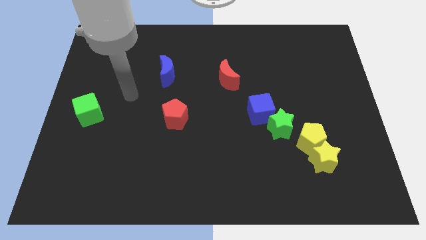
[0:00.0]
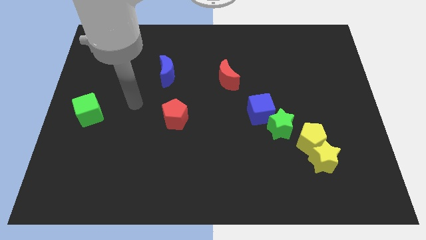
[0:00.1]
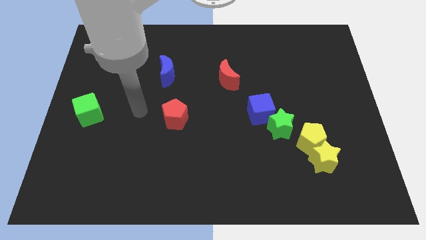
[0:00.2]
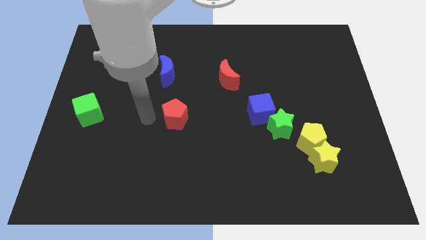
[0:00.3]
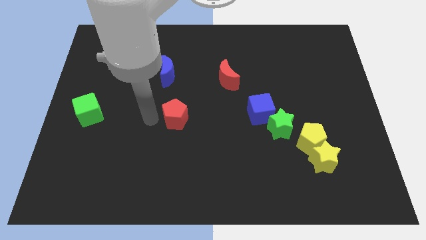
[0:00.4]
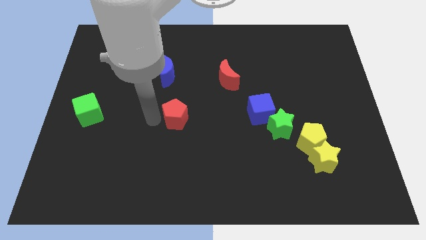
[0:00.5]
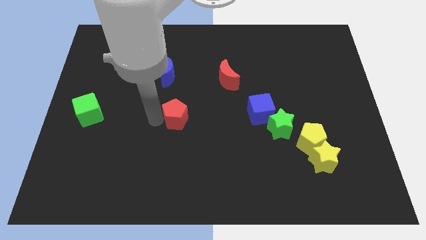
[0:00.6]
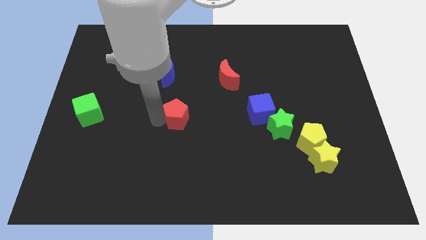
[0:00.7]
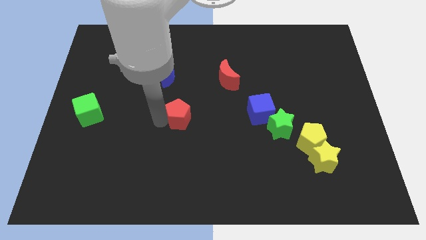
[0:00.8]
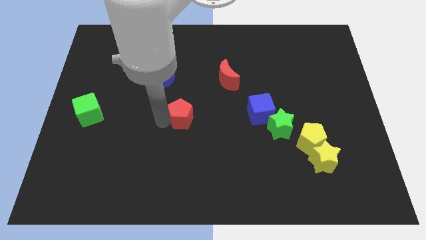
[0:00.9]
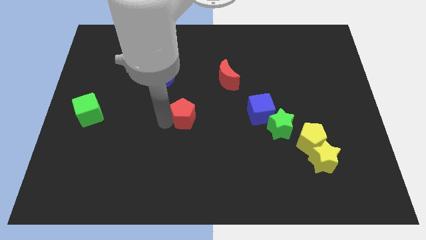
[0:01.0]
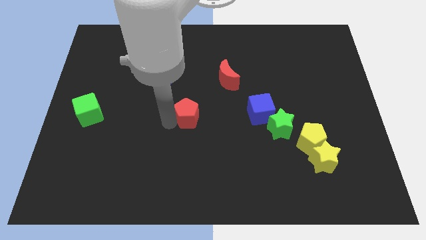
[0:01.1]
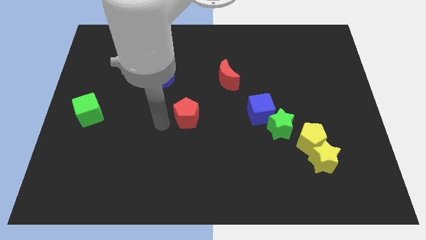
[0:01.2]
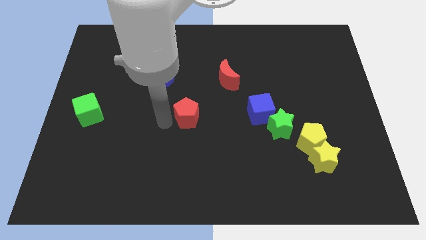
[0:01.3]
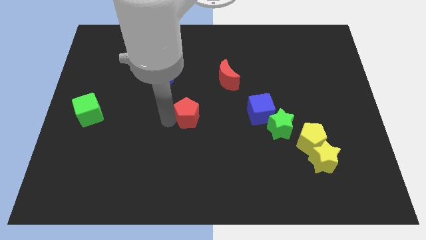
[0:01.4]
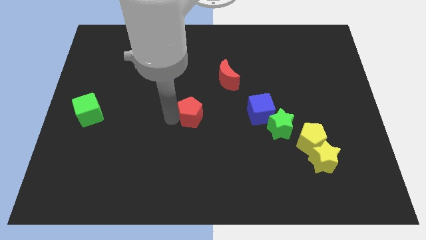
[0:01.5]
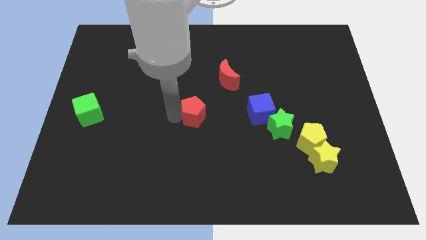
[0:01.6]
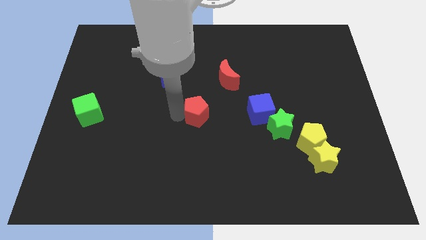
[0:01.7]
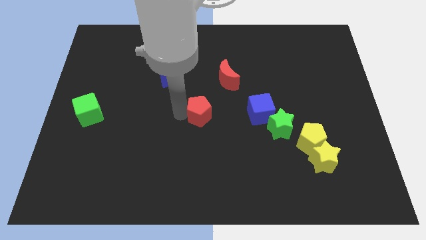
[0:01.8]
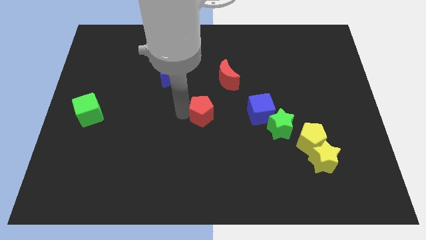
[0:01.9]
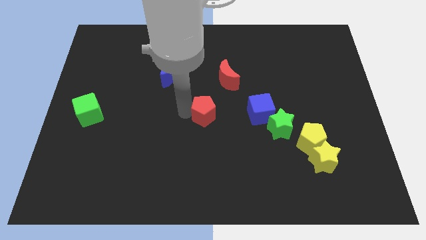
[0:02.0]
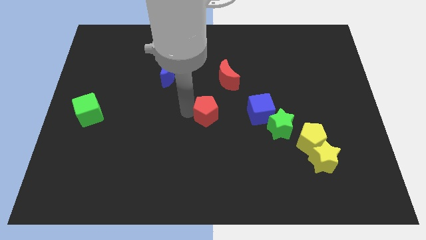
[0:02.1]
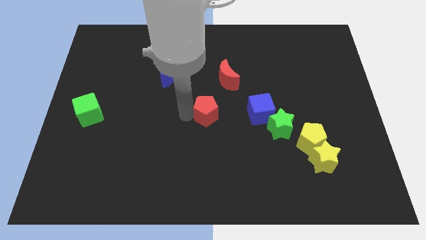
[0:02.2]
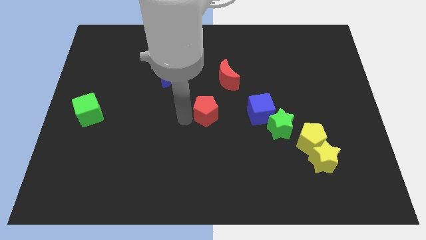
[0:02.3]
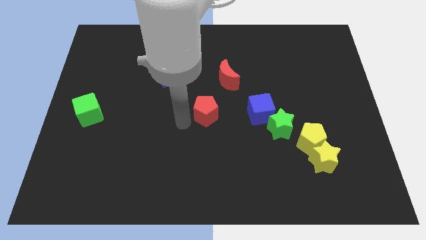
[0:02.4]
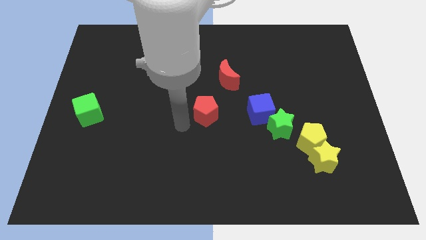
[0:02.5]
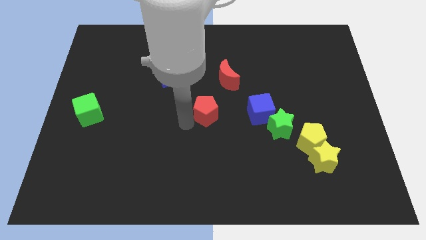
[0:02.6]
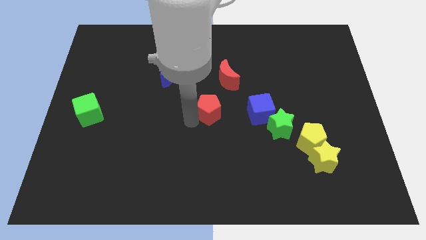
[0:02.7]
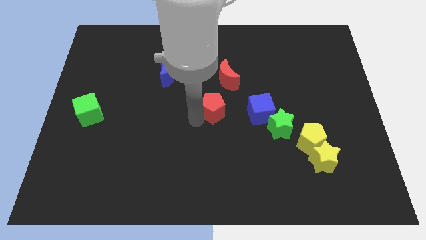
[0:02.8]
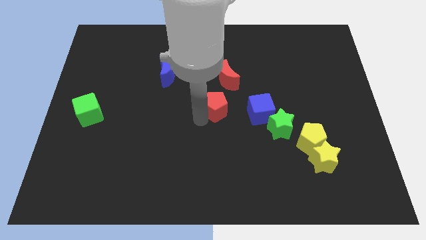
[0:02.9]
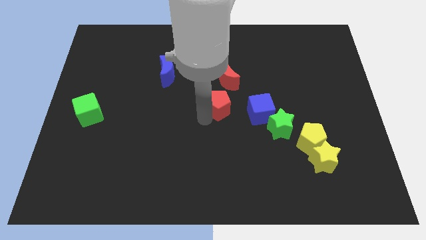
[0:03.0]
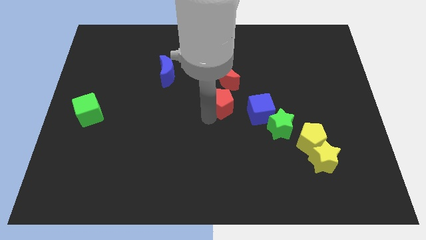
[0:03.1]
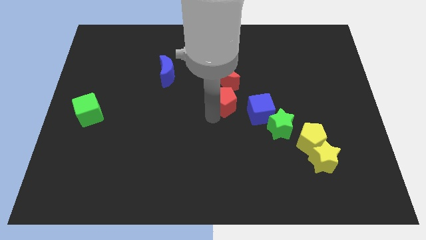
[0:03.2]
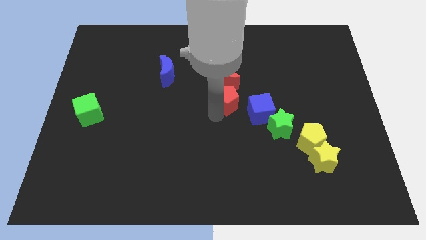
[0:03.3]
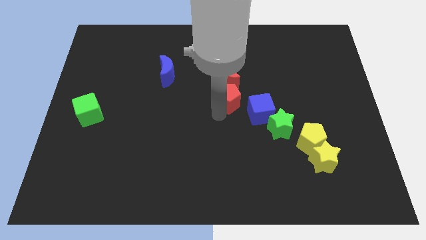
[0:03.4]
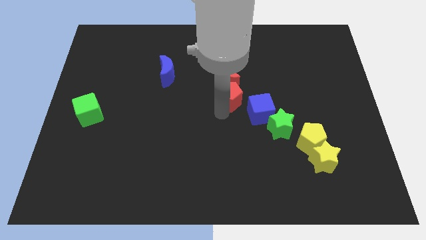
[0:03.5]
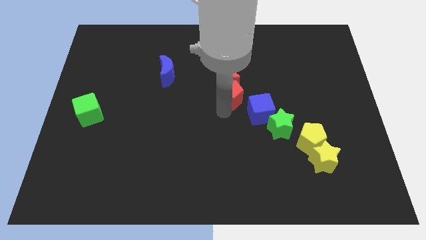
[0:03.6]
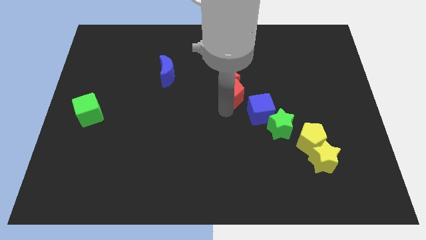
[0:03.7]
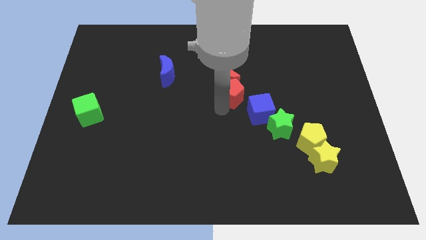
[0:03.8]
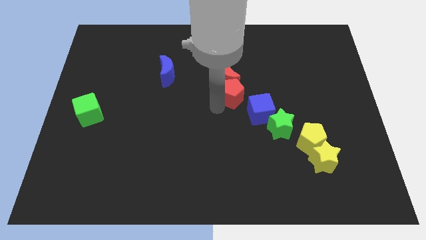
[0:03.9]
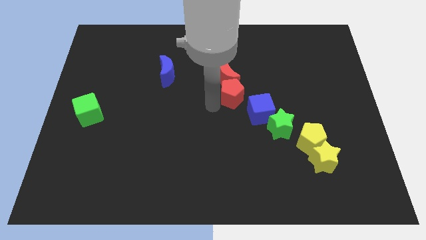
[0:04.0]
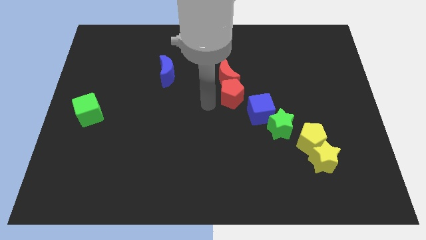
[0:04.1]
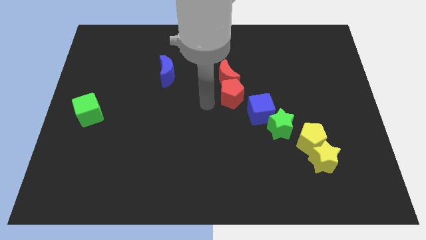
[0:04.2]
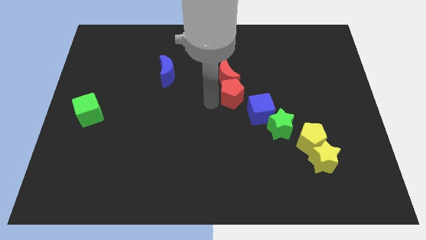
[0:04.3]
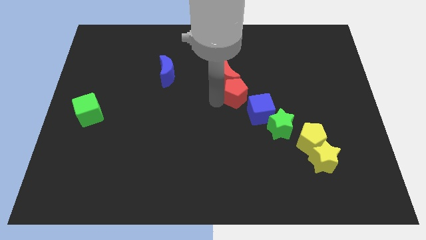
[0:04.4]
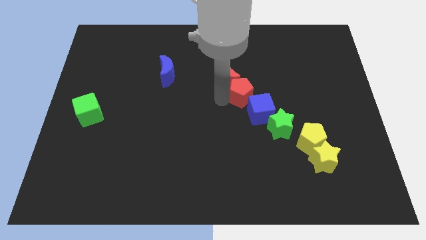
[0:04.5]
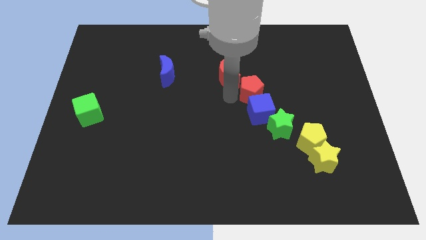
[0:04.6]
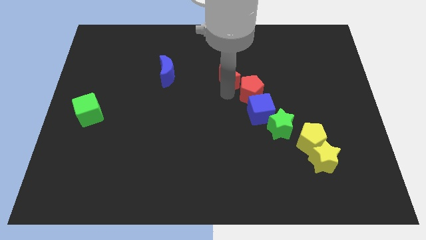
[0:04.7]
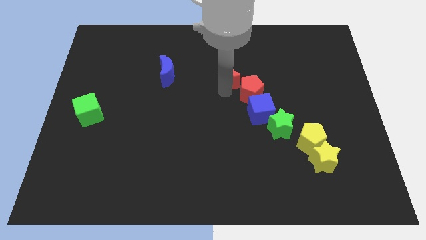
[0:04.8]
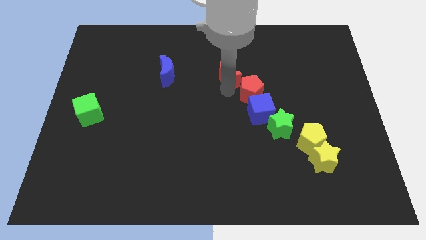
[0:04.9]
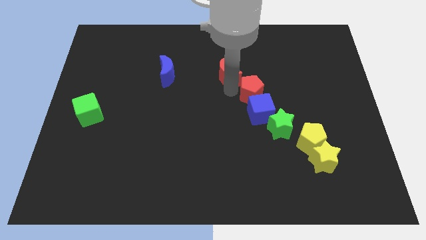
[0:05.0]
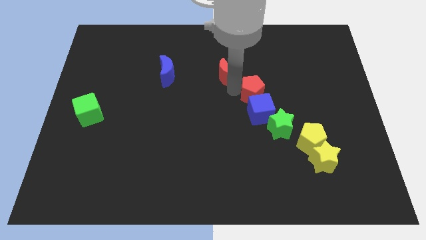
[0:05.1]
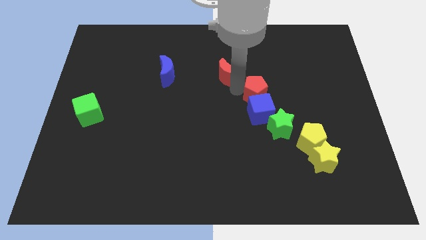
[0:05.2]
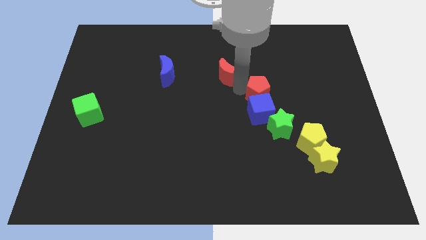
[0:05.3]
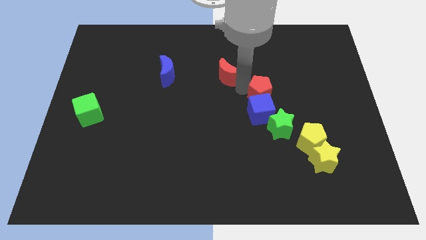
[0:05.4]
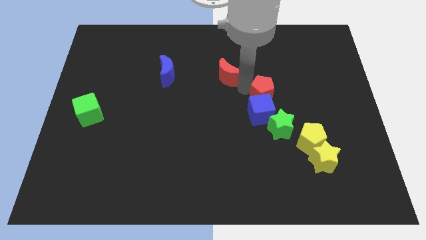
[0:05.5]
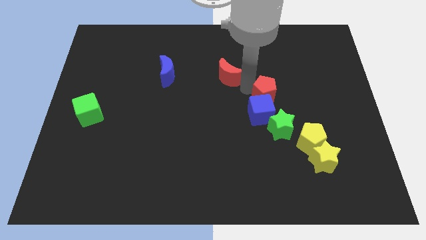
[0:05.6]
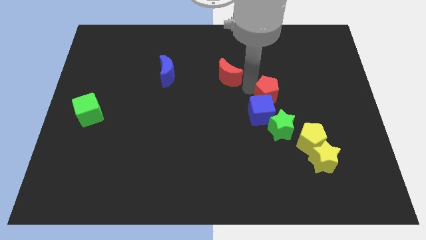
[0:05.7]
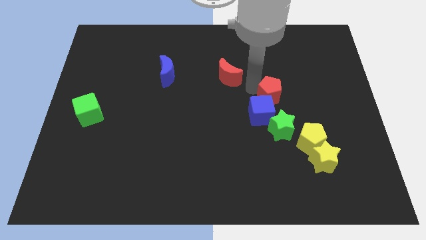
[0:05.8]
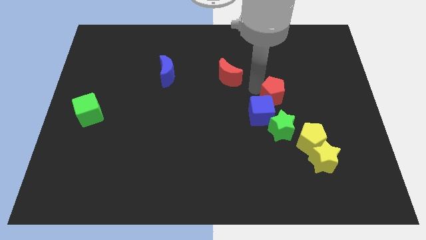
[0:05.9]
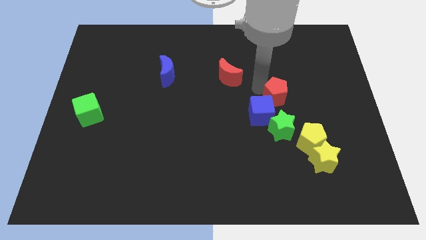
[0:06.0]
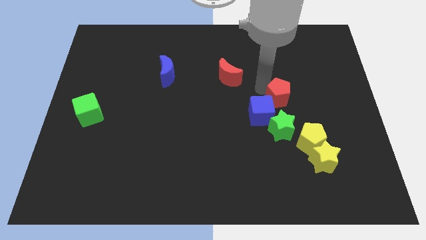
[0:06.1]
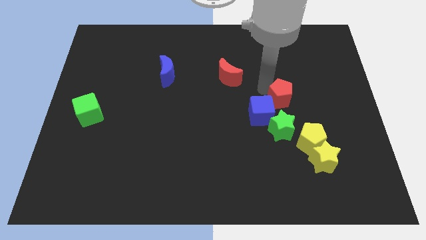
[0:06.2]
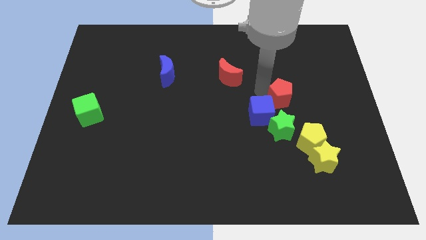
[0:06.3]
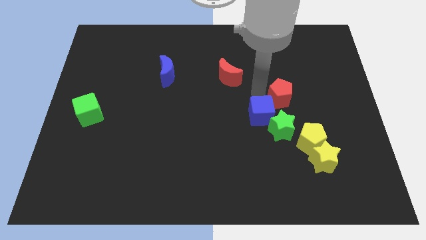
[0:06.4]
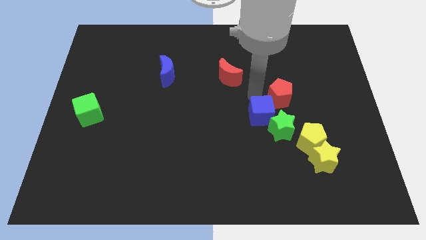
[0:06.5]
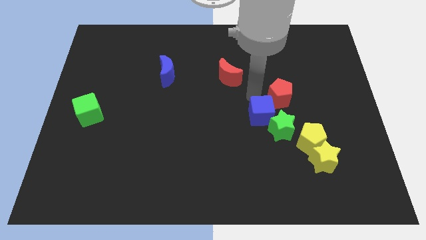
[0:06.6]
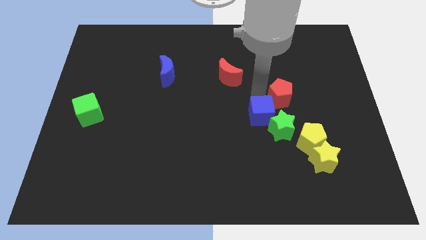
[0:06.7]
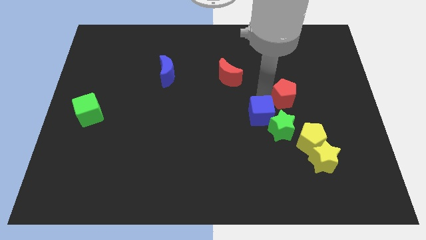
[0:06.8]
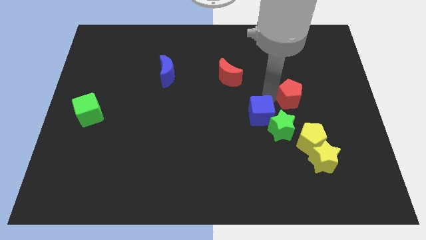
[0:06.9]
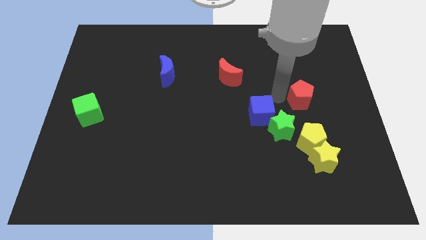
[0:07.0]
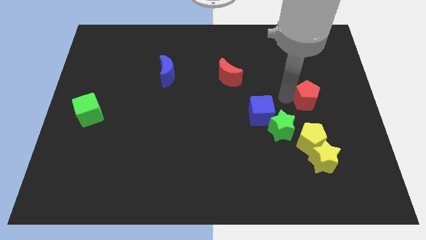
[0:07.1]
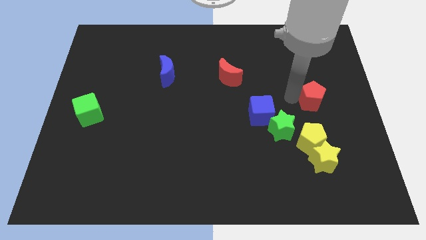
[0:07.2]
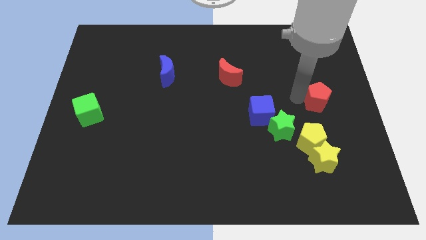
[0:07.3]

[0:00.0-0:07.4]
slide the red pentagon to the center right
